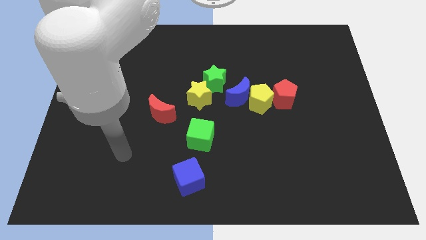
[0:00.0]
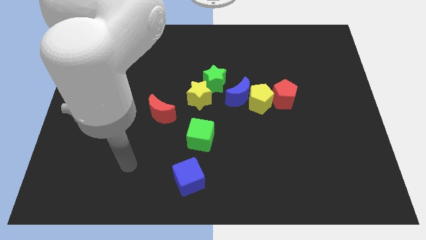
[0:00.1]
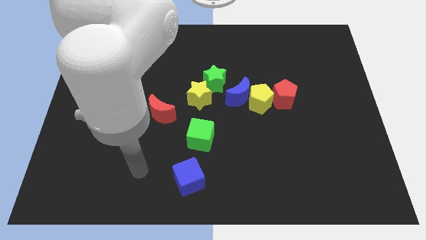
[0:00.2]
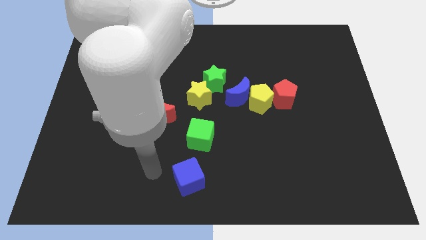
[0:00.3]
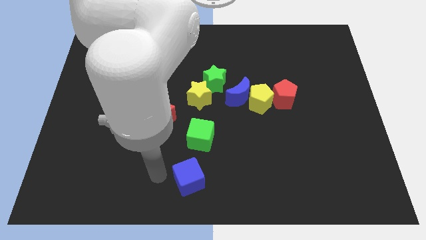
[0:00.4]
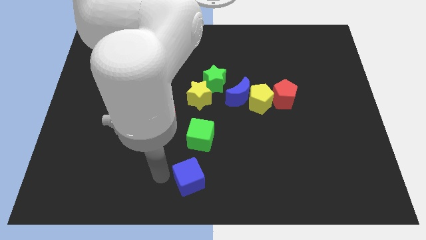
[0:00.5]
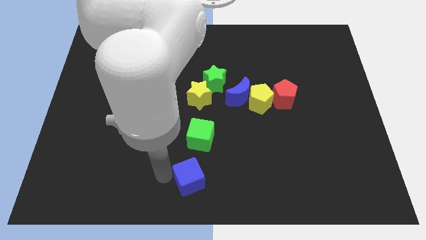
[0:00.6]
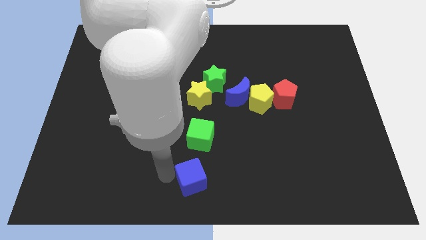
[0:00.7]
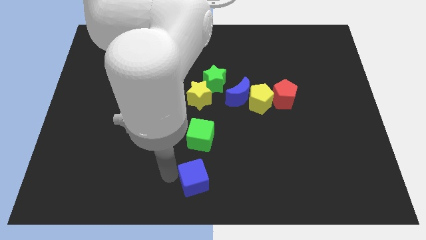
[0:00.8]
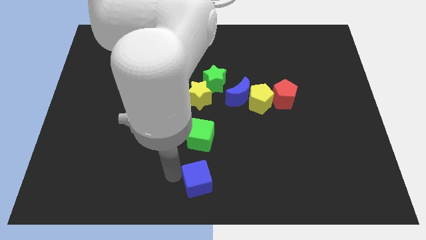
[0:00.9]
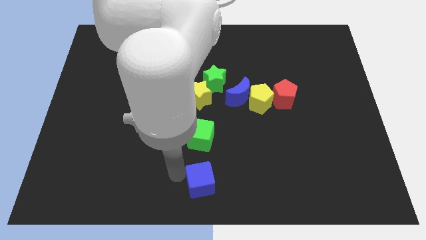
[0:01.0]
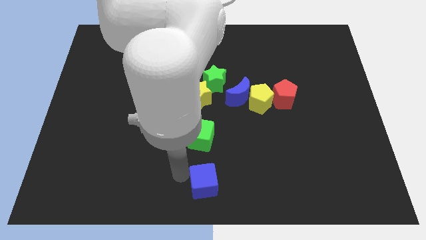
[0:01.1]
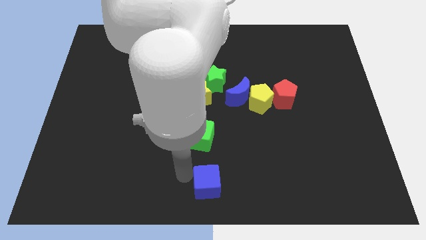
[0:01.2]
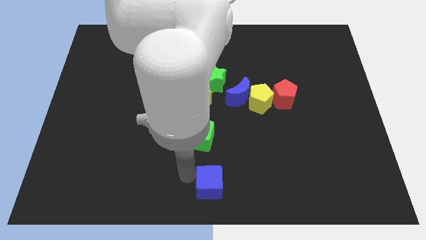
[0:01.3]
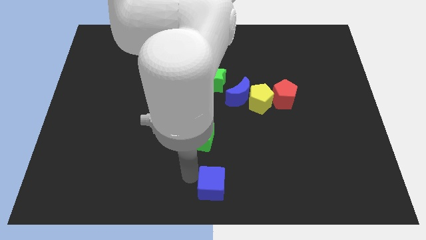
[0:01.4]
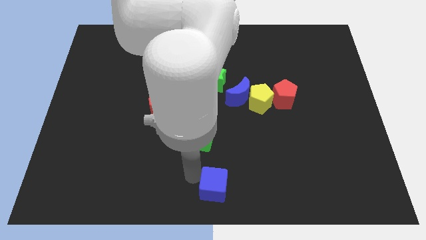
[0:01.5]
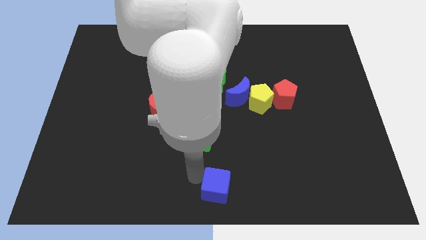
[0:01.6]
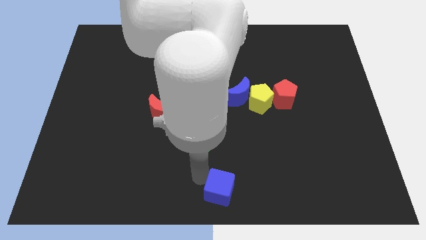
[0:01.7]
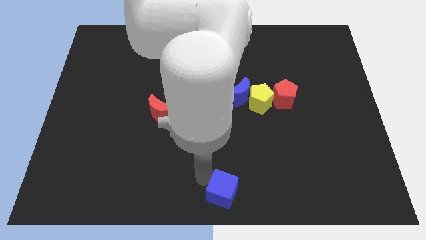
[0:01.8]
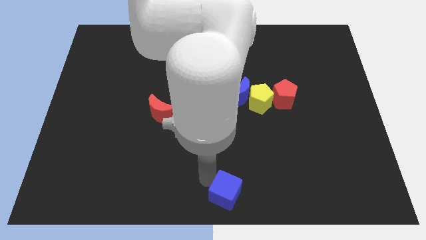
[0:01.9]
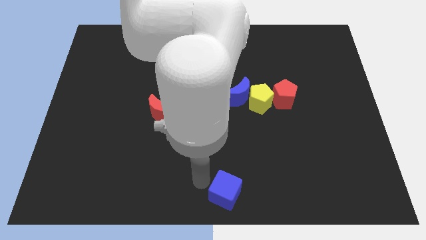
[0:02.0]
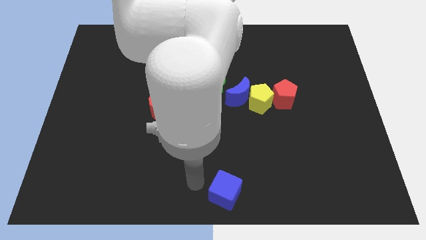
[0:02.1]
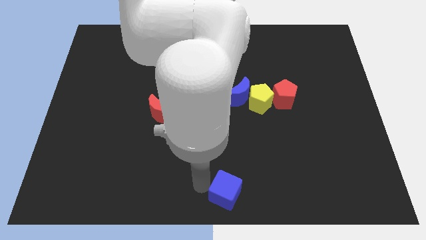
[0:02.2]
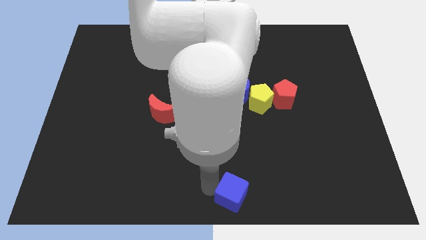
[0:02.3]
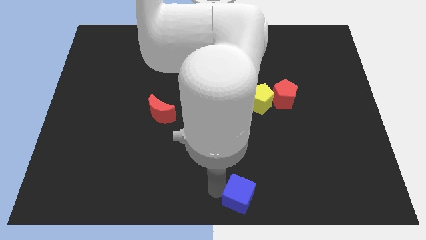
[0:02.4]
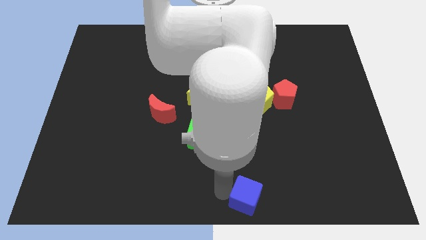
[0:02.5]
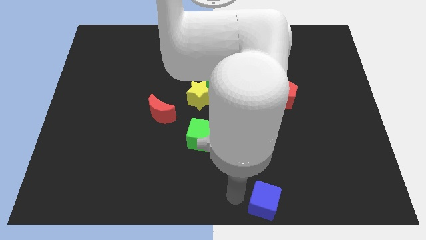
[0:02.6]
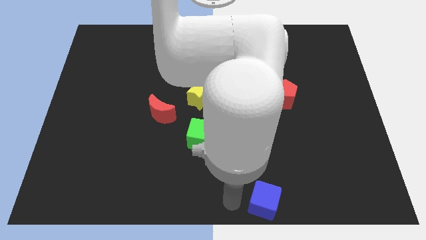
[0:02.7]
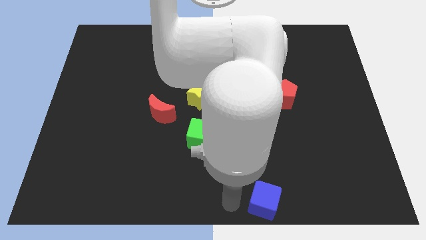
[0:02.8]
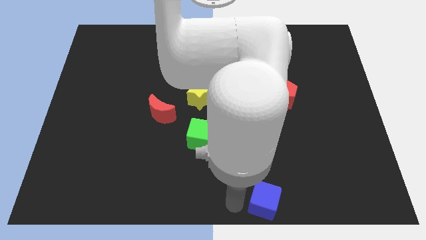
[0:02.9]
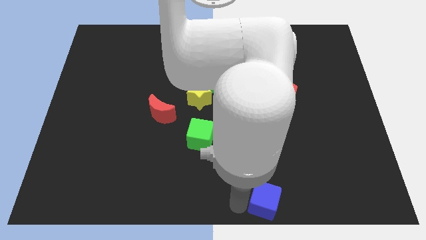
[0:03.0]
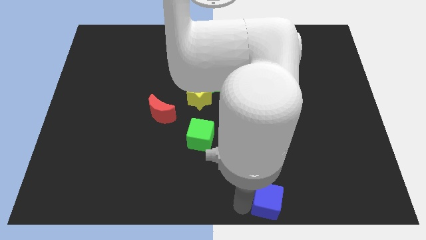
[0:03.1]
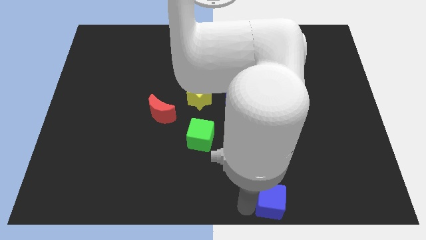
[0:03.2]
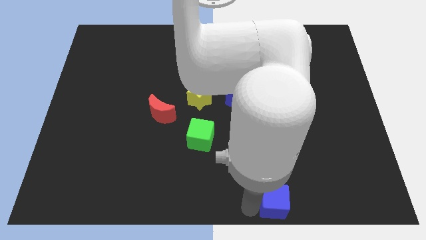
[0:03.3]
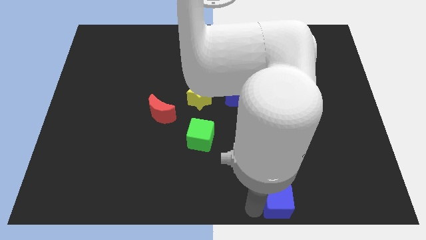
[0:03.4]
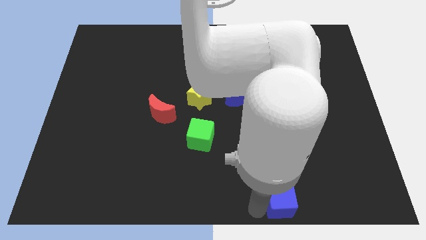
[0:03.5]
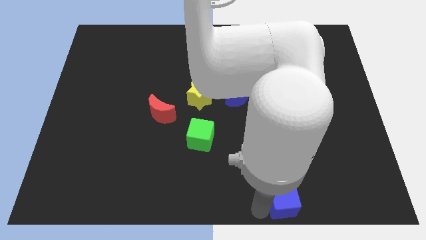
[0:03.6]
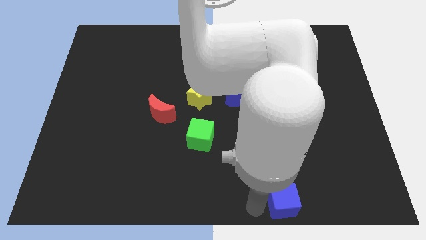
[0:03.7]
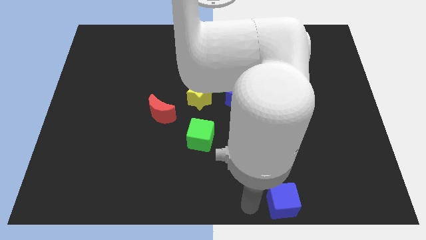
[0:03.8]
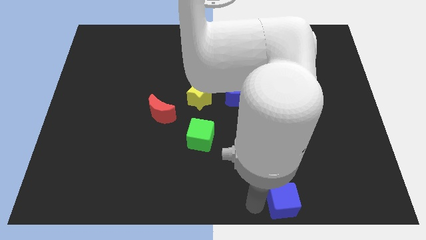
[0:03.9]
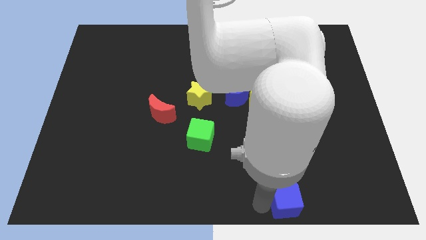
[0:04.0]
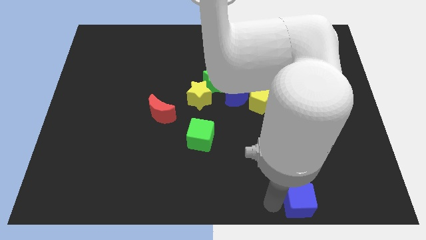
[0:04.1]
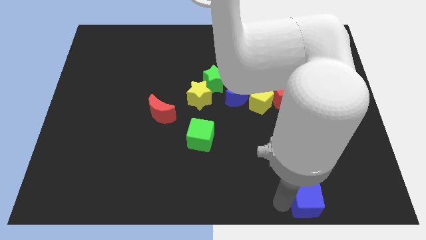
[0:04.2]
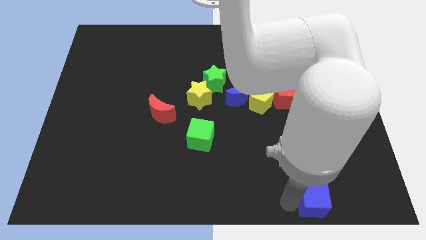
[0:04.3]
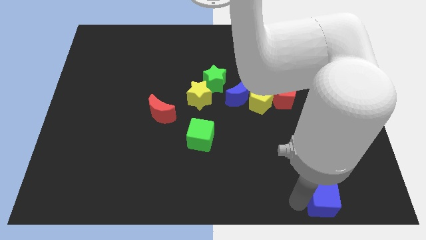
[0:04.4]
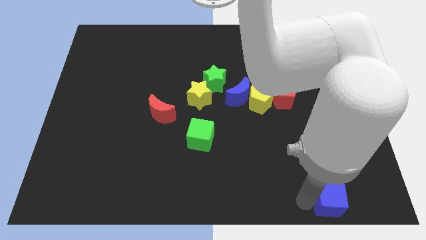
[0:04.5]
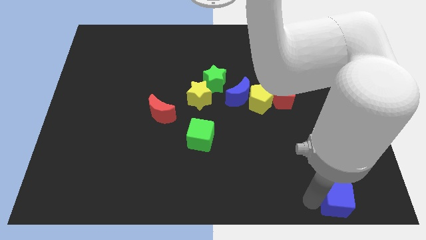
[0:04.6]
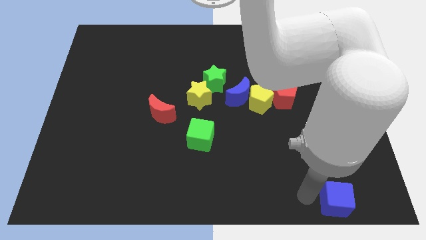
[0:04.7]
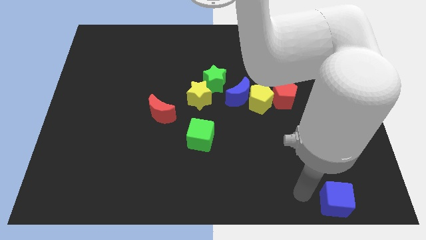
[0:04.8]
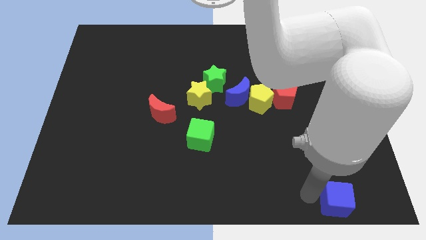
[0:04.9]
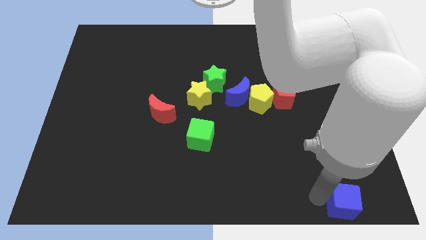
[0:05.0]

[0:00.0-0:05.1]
move the blue cube to the bottom right

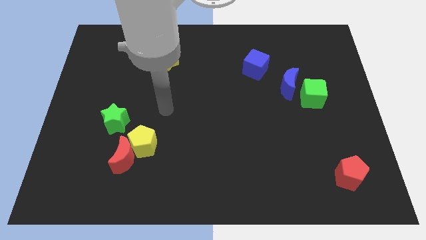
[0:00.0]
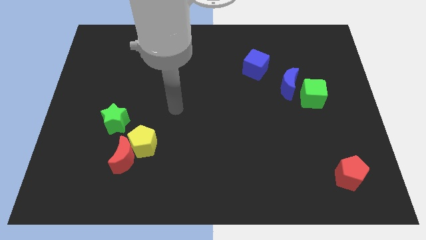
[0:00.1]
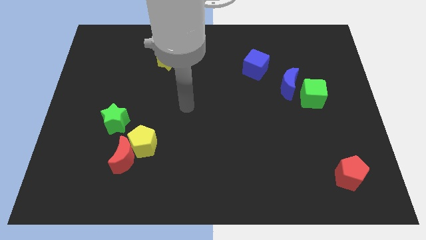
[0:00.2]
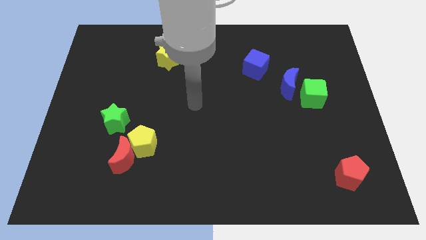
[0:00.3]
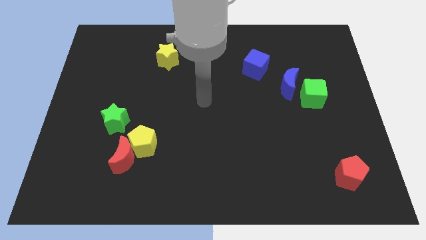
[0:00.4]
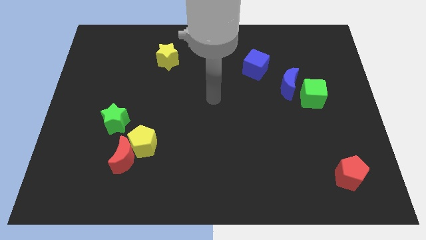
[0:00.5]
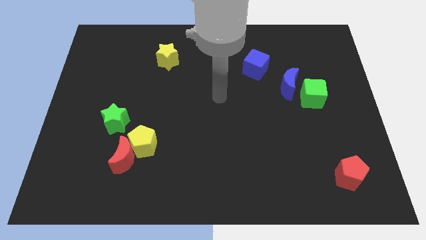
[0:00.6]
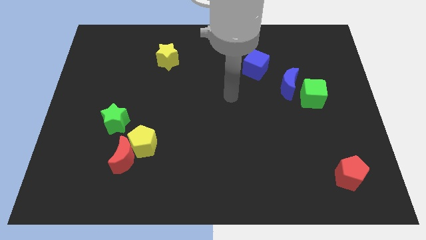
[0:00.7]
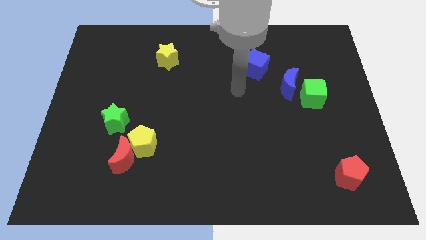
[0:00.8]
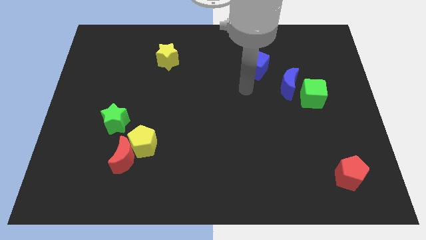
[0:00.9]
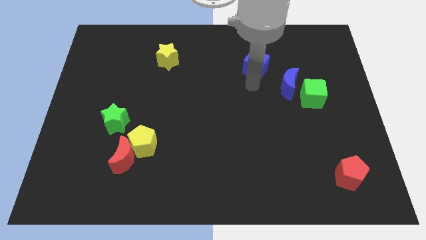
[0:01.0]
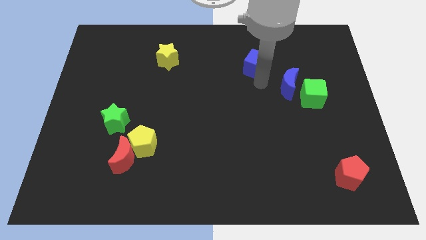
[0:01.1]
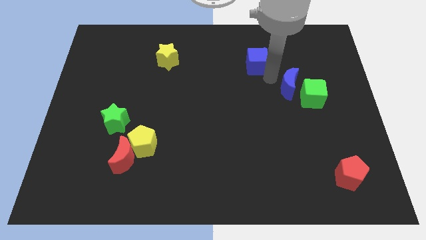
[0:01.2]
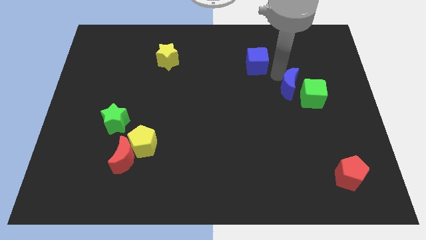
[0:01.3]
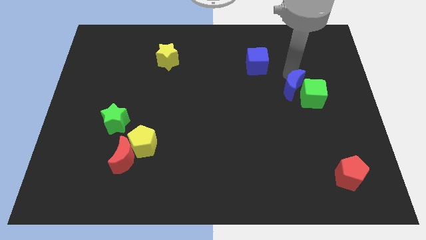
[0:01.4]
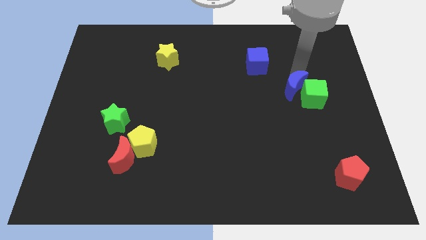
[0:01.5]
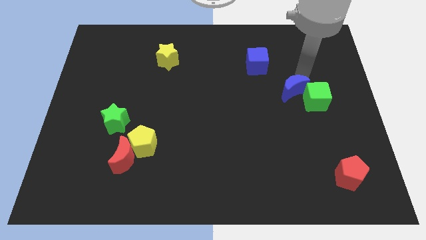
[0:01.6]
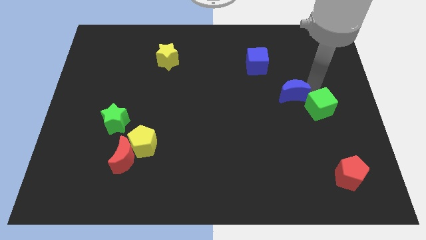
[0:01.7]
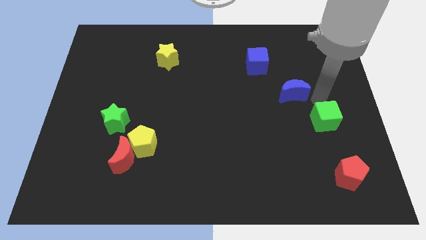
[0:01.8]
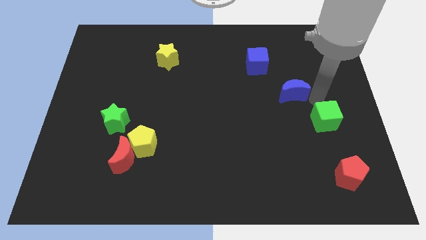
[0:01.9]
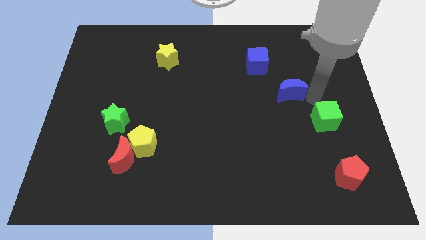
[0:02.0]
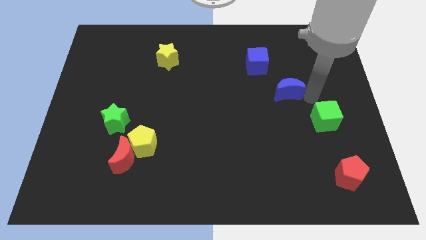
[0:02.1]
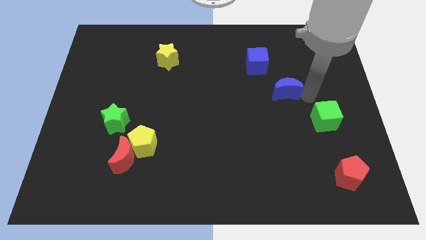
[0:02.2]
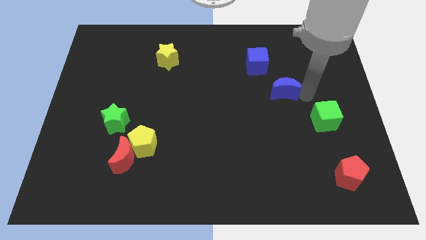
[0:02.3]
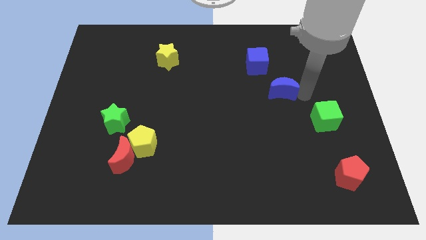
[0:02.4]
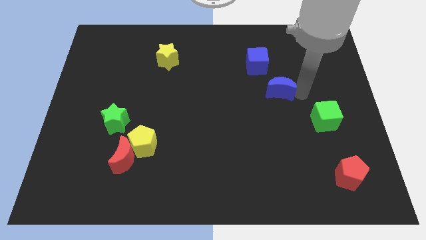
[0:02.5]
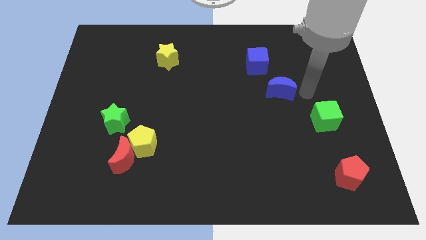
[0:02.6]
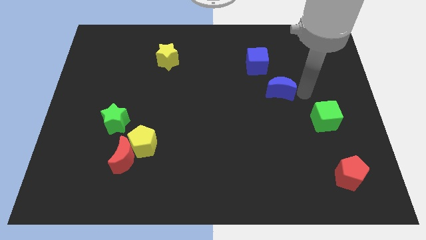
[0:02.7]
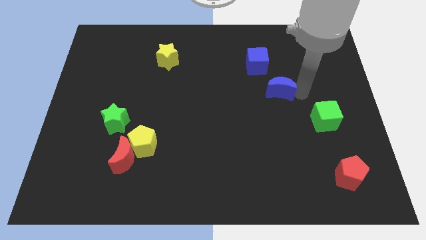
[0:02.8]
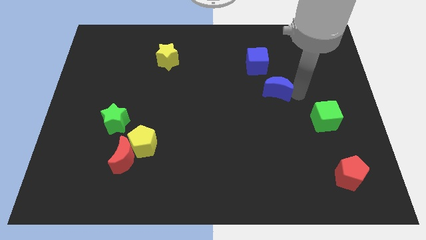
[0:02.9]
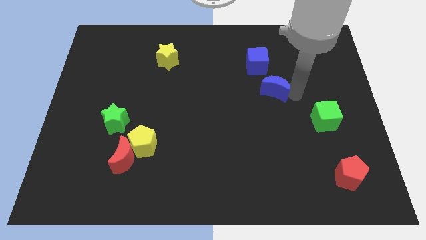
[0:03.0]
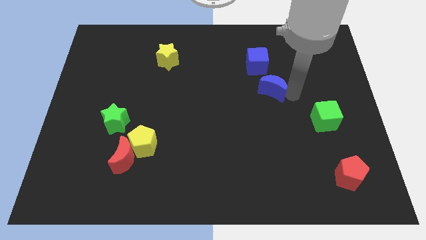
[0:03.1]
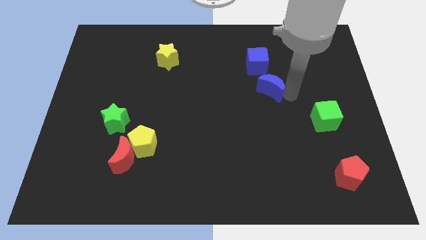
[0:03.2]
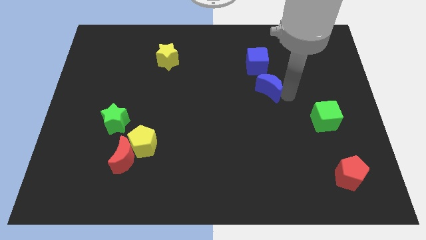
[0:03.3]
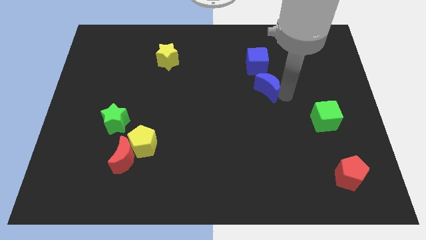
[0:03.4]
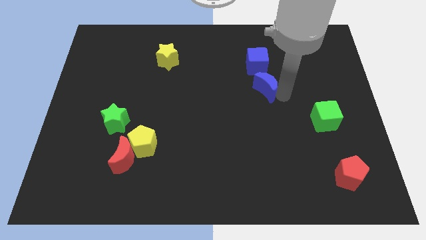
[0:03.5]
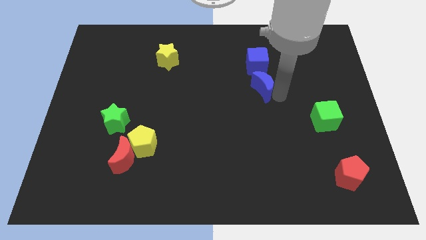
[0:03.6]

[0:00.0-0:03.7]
put the blue moon to the center
